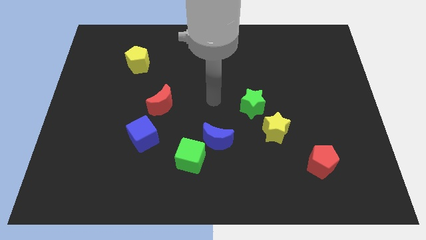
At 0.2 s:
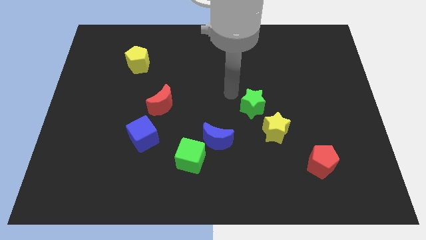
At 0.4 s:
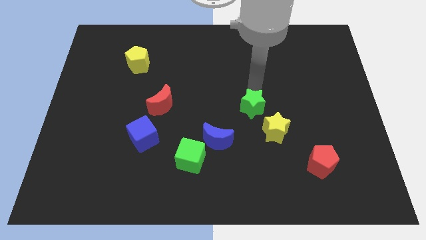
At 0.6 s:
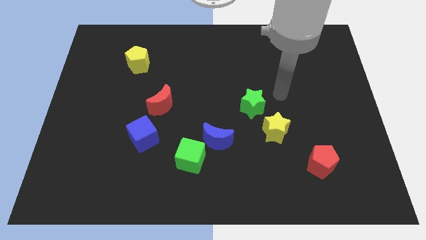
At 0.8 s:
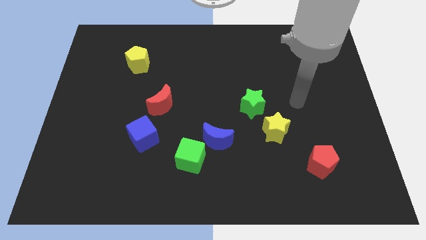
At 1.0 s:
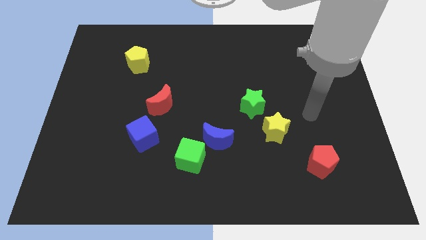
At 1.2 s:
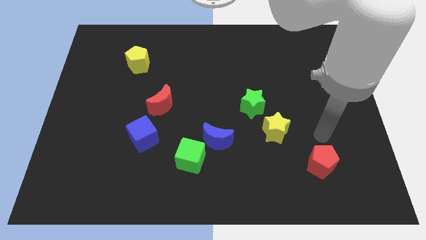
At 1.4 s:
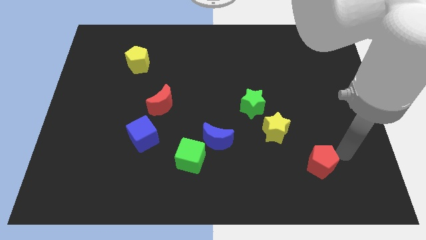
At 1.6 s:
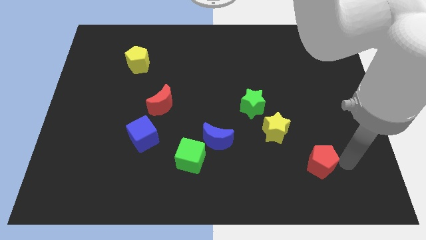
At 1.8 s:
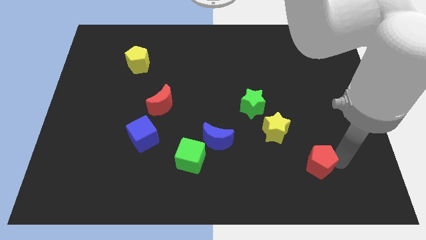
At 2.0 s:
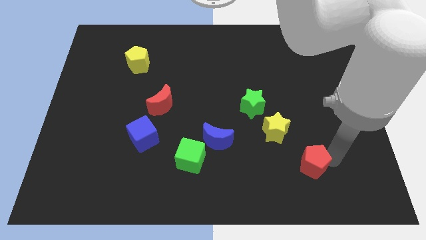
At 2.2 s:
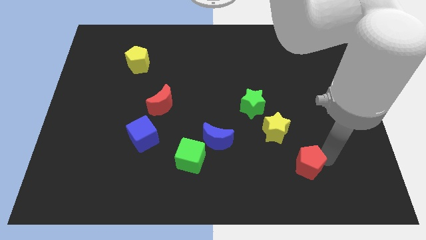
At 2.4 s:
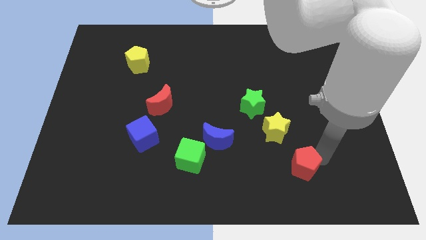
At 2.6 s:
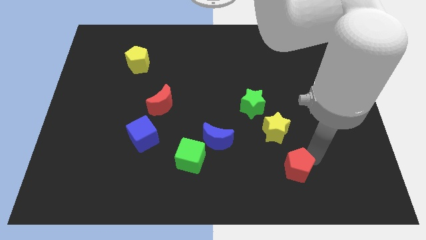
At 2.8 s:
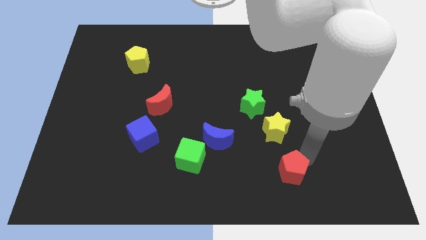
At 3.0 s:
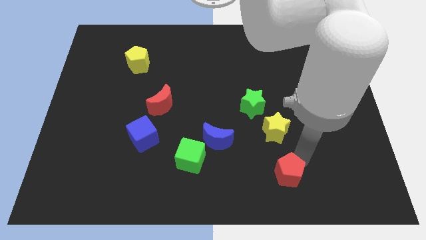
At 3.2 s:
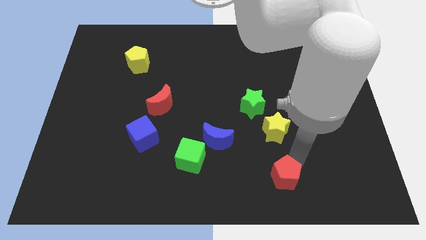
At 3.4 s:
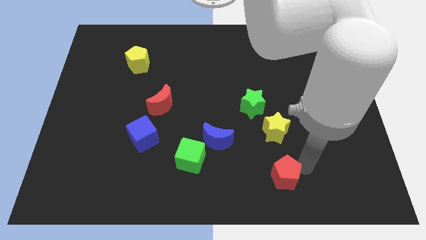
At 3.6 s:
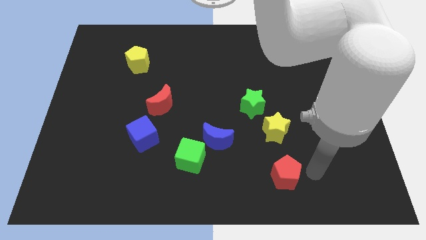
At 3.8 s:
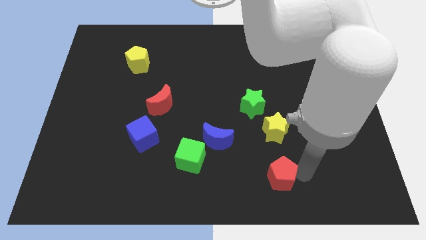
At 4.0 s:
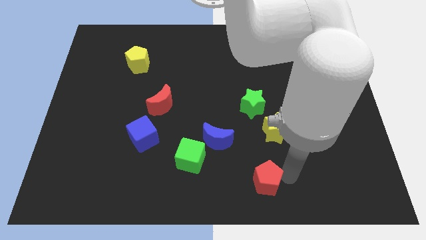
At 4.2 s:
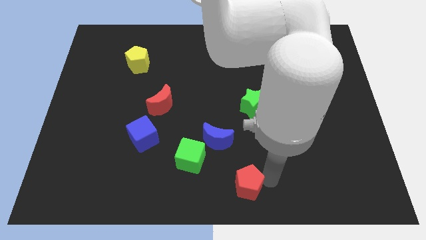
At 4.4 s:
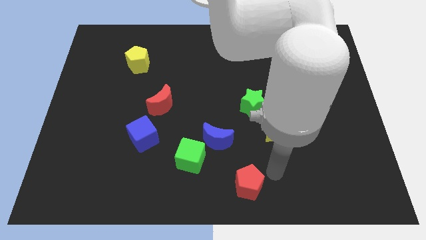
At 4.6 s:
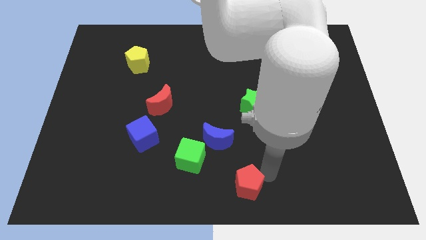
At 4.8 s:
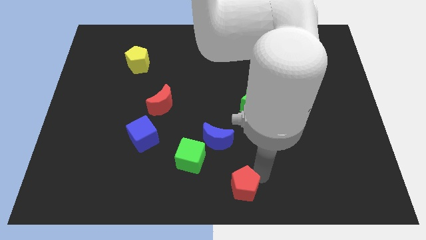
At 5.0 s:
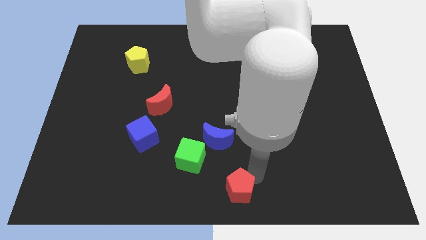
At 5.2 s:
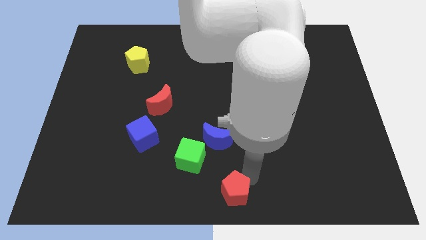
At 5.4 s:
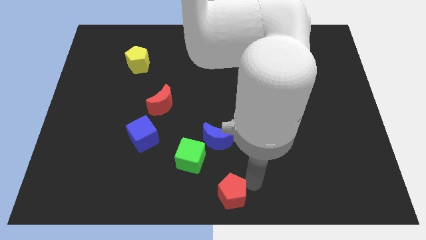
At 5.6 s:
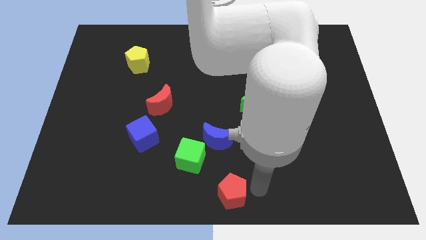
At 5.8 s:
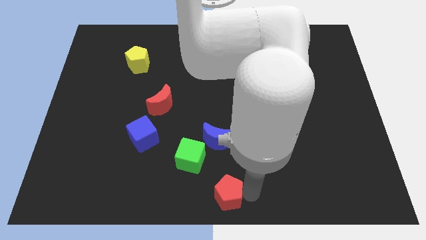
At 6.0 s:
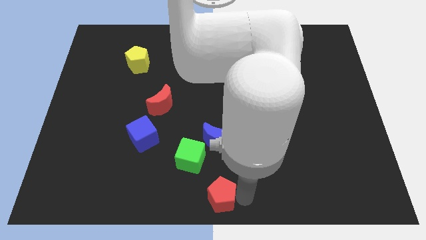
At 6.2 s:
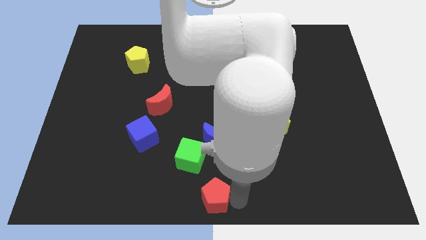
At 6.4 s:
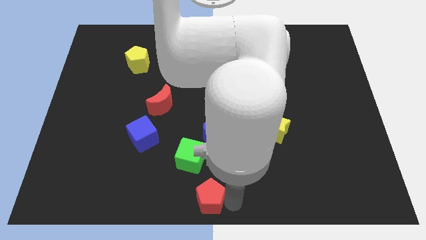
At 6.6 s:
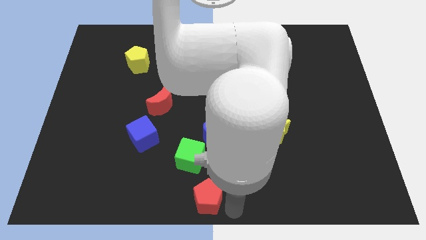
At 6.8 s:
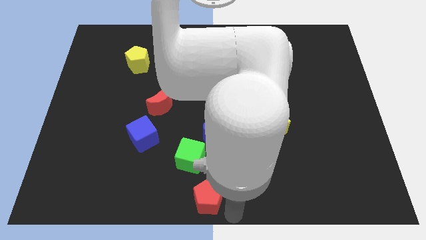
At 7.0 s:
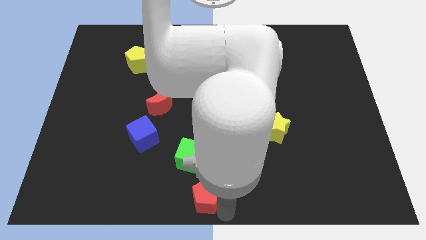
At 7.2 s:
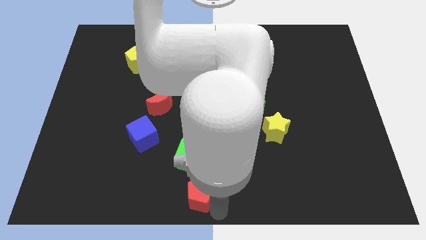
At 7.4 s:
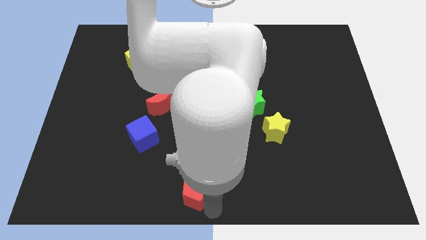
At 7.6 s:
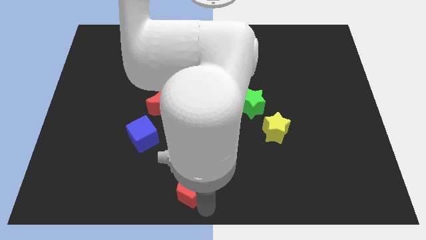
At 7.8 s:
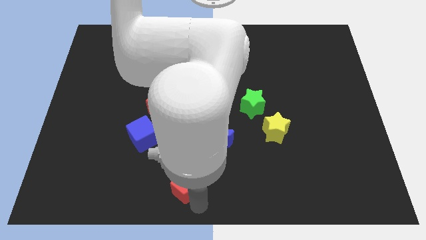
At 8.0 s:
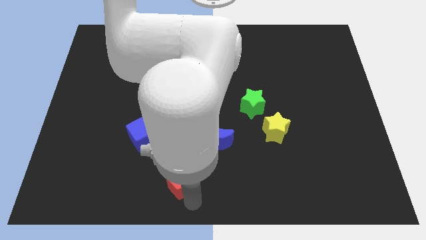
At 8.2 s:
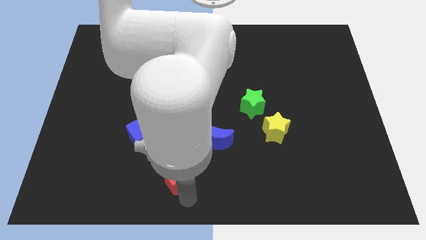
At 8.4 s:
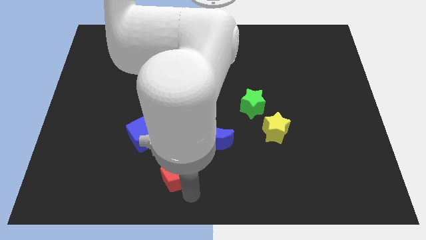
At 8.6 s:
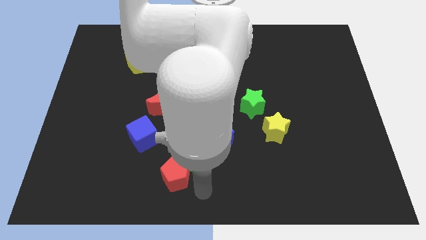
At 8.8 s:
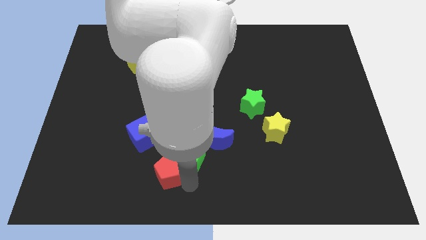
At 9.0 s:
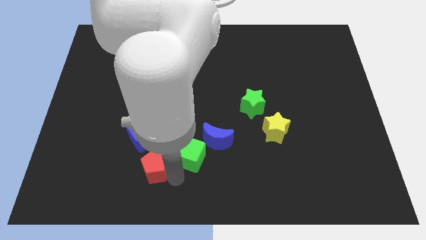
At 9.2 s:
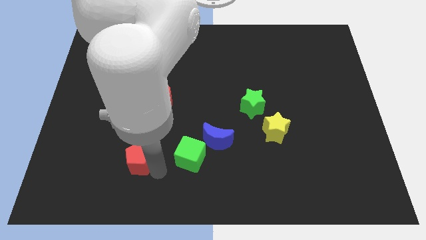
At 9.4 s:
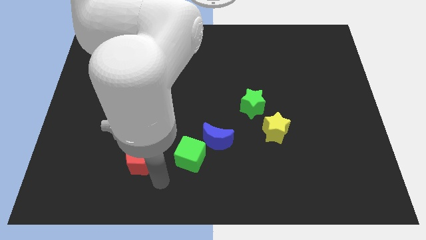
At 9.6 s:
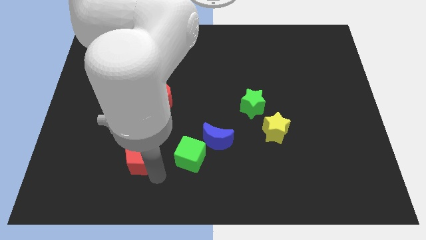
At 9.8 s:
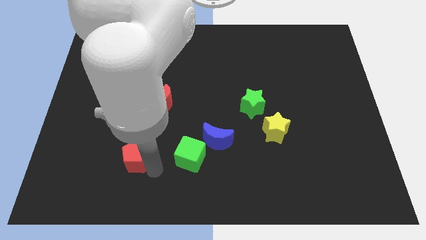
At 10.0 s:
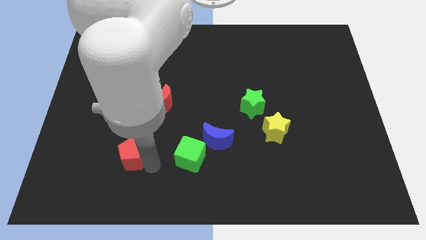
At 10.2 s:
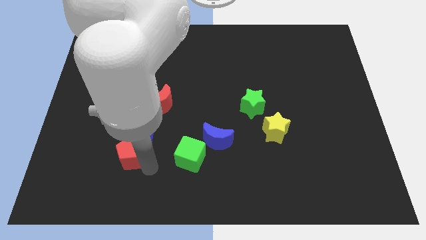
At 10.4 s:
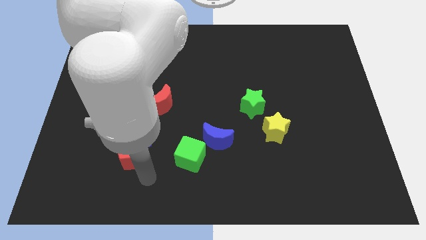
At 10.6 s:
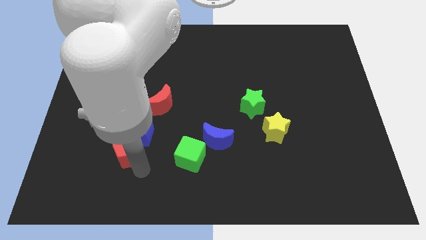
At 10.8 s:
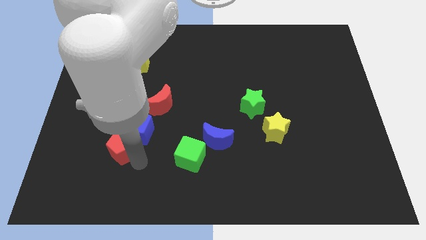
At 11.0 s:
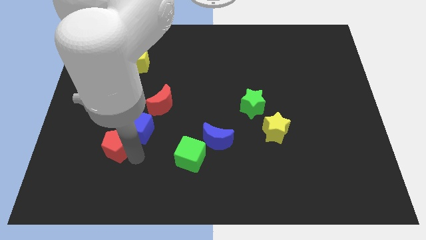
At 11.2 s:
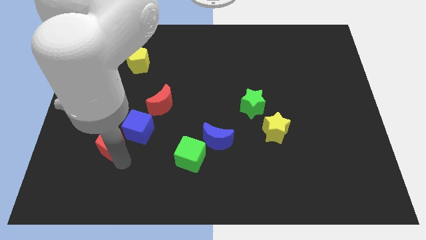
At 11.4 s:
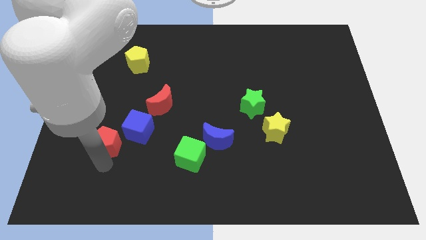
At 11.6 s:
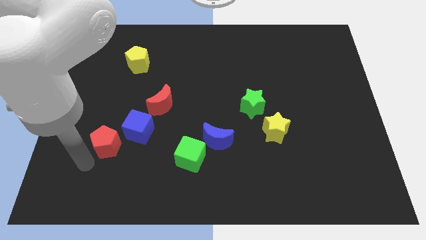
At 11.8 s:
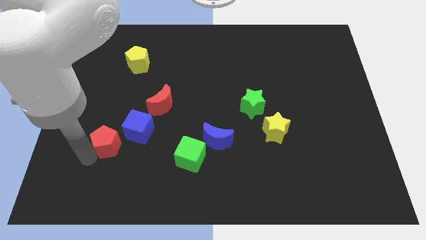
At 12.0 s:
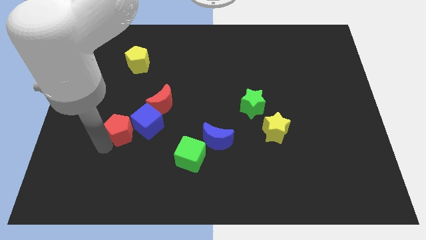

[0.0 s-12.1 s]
slide the red pentagon to the bottom left of the red moon

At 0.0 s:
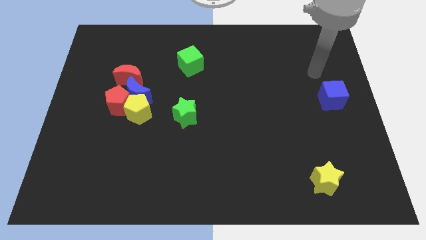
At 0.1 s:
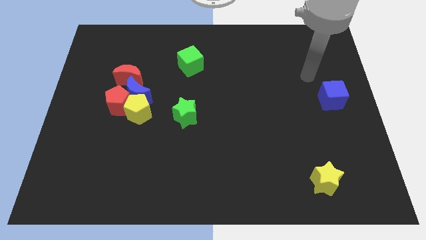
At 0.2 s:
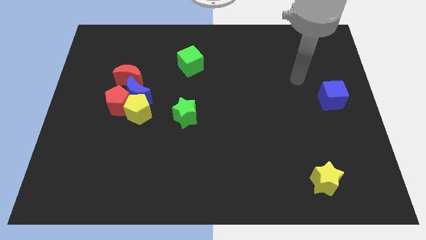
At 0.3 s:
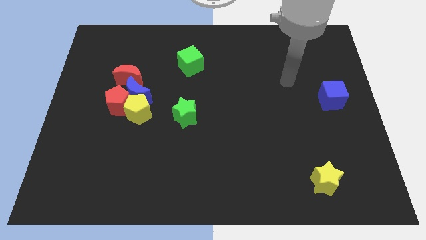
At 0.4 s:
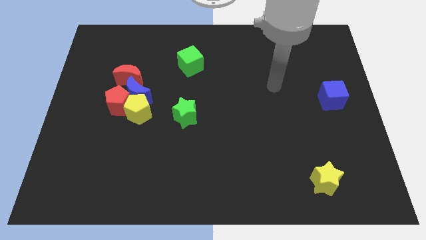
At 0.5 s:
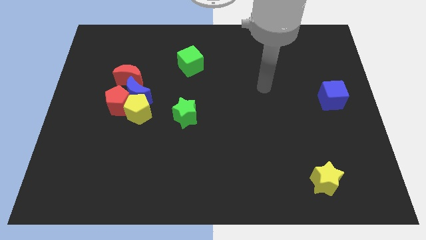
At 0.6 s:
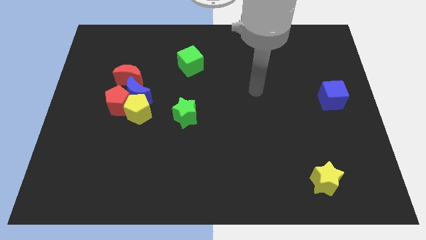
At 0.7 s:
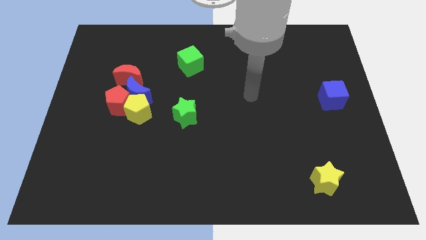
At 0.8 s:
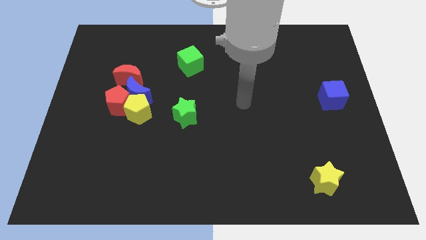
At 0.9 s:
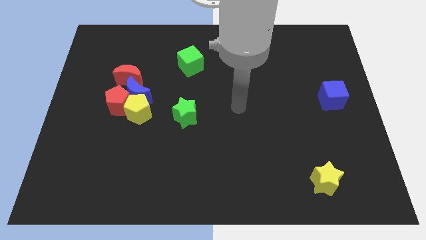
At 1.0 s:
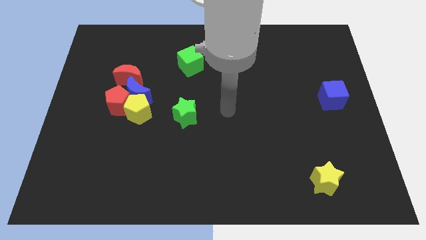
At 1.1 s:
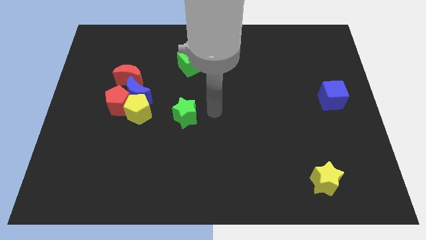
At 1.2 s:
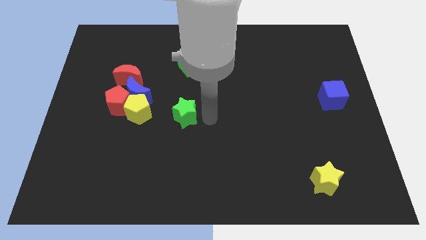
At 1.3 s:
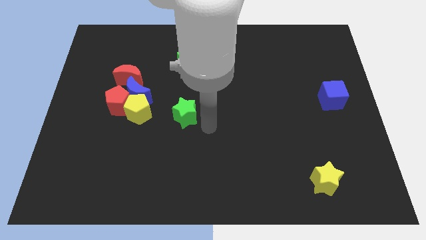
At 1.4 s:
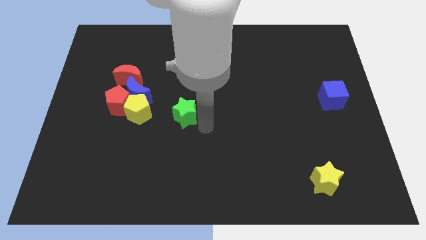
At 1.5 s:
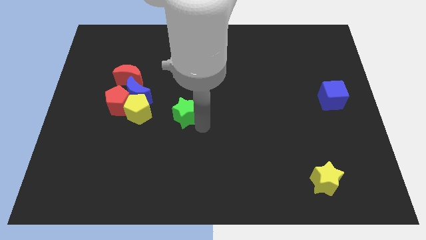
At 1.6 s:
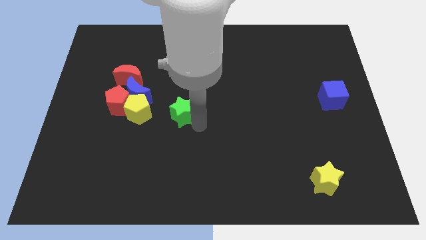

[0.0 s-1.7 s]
put the green star to the right side of the red pentagon
